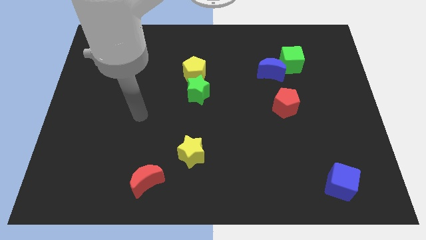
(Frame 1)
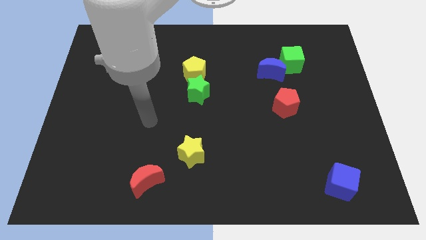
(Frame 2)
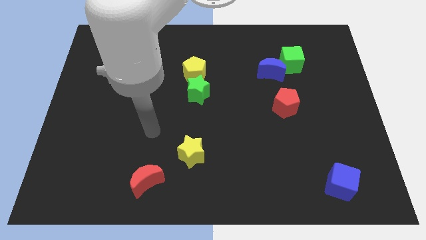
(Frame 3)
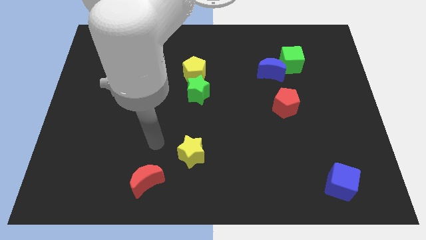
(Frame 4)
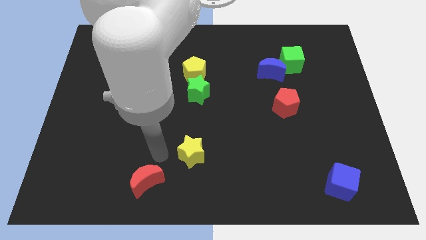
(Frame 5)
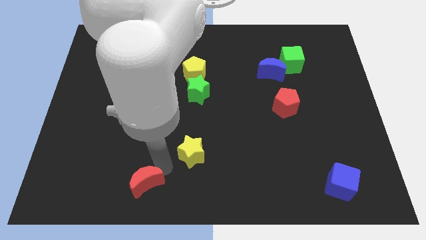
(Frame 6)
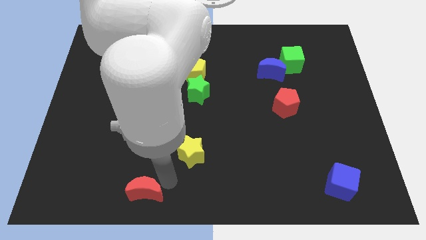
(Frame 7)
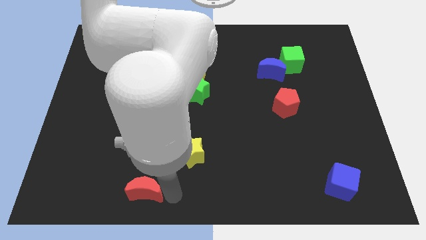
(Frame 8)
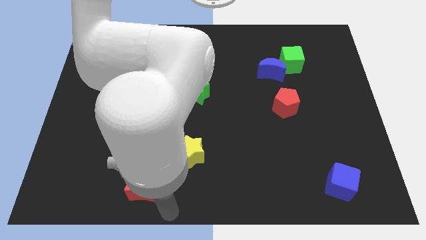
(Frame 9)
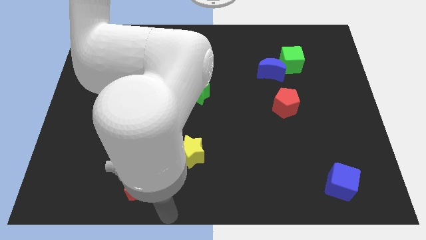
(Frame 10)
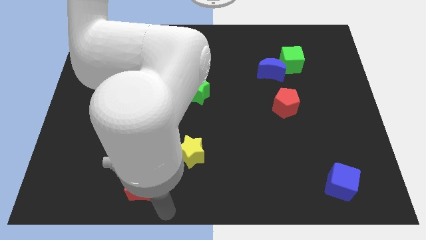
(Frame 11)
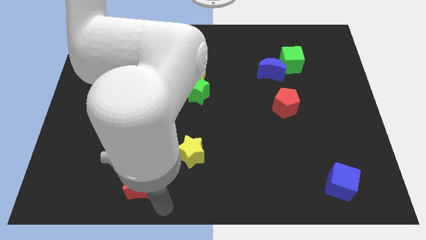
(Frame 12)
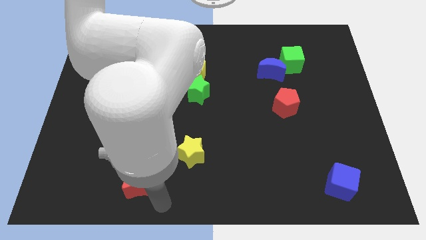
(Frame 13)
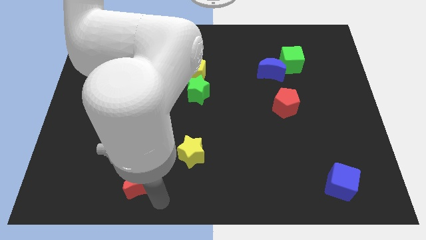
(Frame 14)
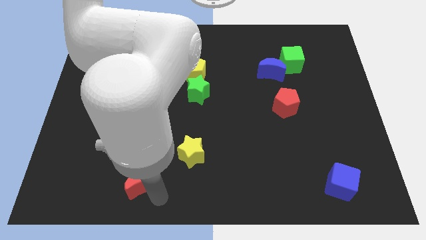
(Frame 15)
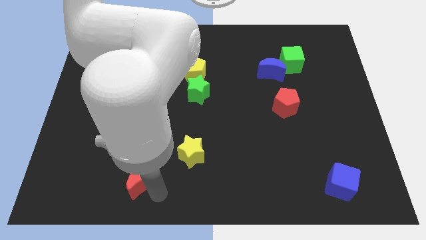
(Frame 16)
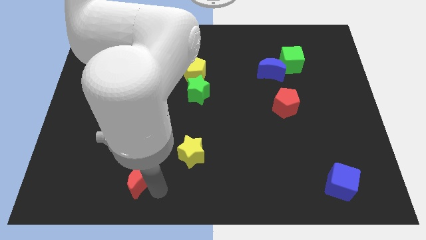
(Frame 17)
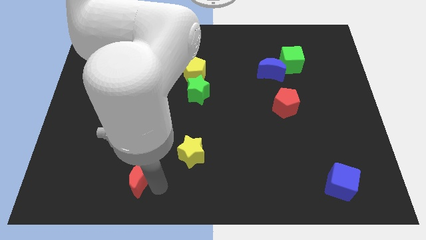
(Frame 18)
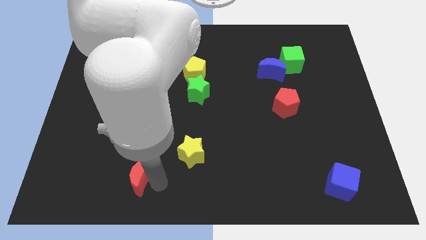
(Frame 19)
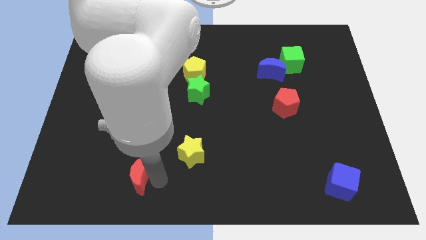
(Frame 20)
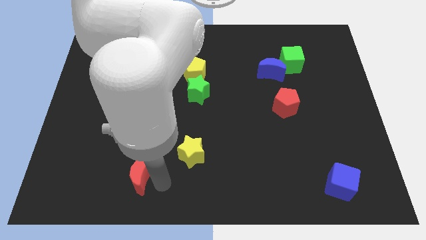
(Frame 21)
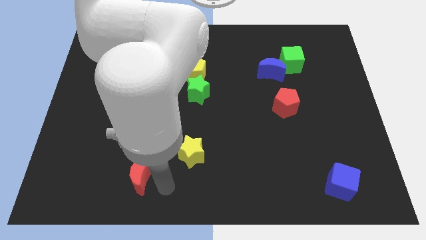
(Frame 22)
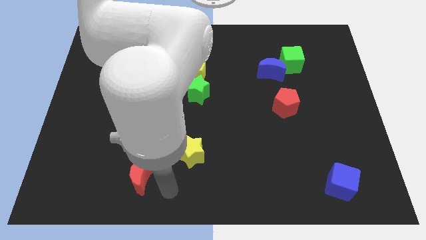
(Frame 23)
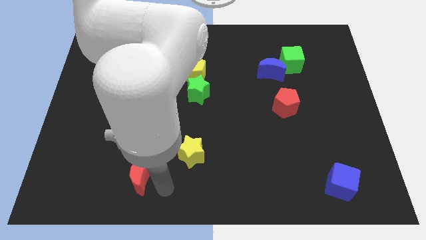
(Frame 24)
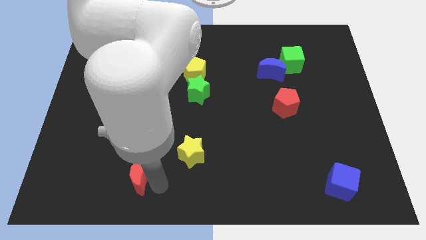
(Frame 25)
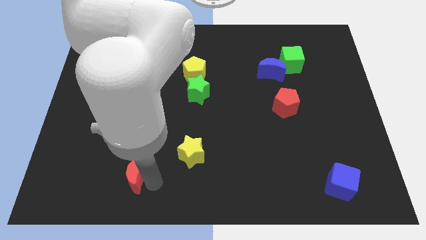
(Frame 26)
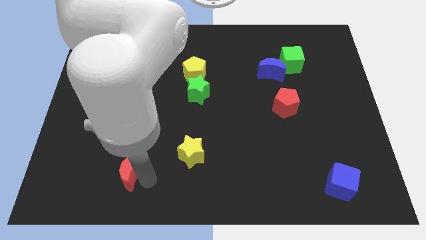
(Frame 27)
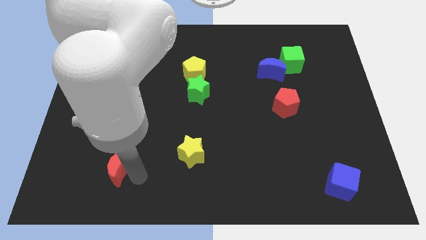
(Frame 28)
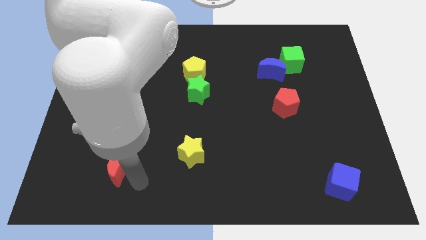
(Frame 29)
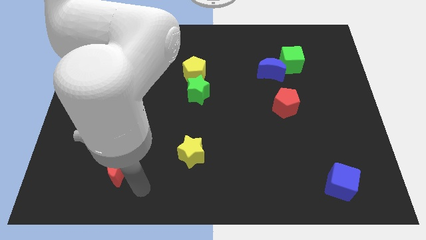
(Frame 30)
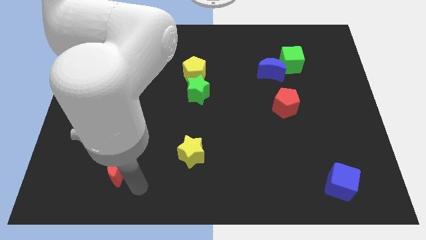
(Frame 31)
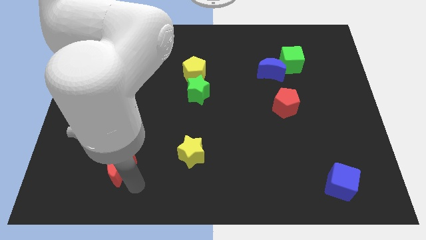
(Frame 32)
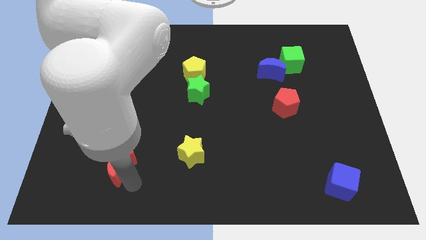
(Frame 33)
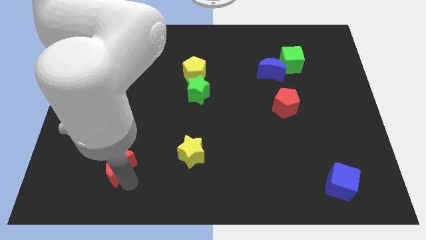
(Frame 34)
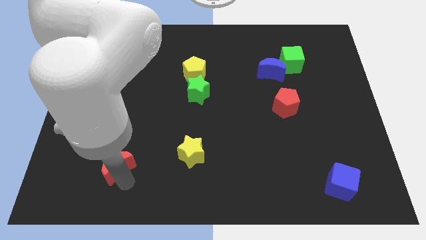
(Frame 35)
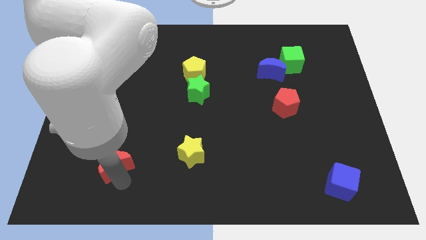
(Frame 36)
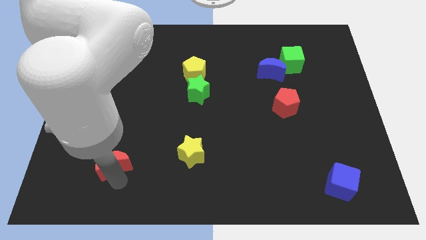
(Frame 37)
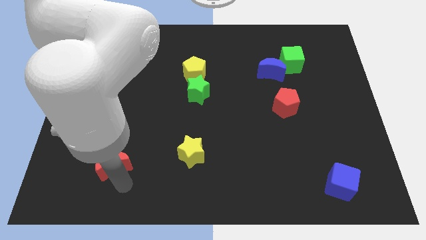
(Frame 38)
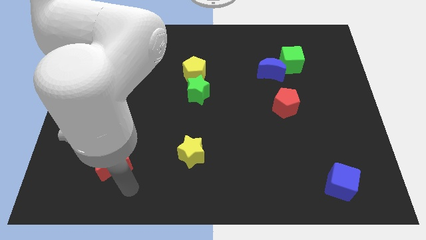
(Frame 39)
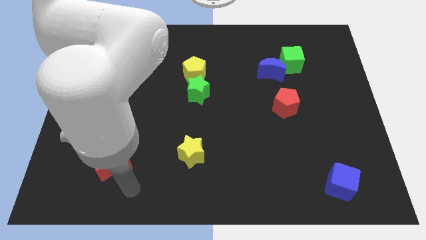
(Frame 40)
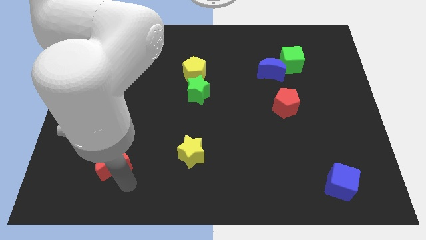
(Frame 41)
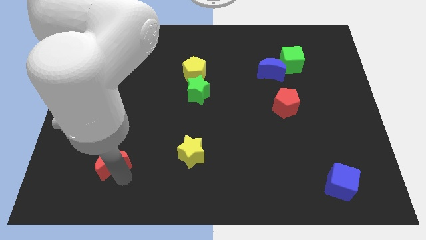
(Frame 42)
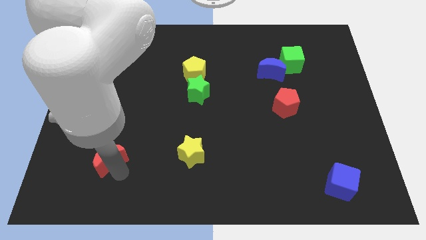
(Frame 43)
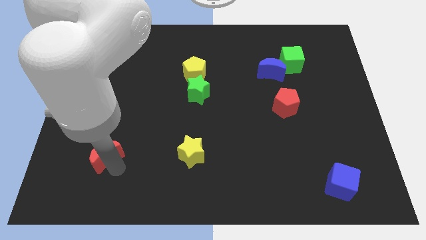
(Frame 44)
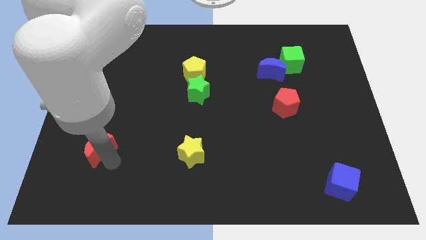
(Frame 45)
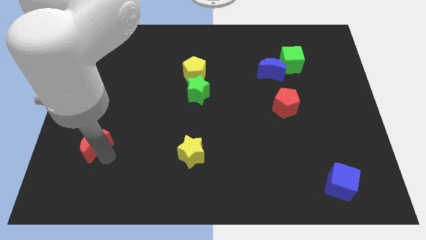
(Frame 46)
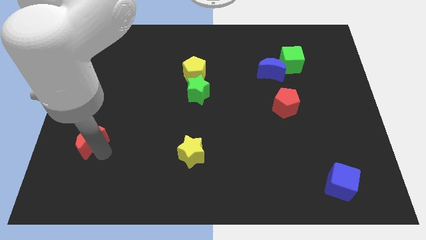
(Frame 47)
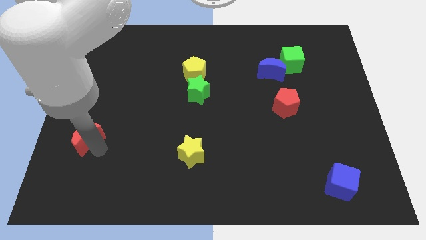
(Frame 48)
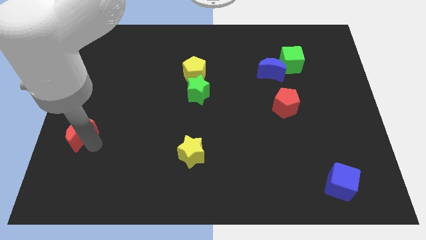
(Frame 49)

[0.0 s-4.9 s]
move the red moon to the left side of the board

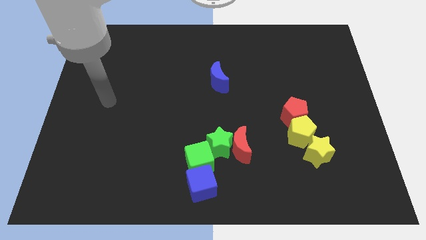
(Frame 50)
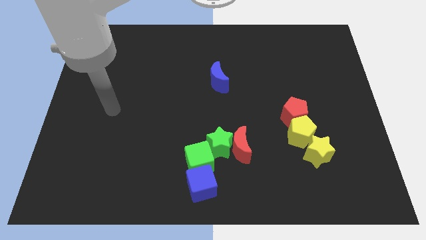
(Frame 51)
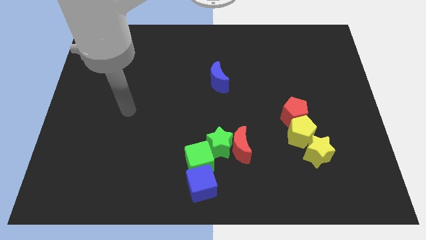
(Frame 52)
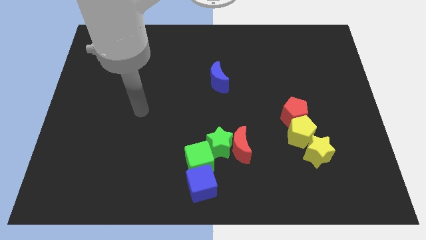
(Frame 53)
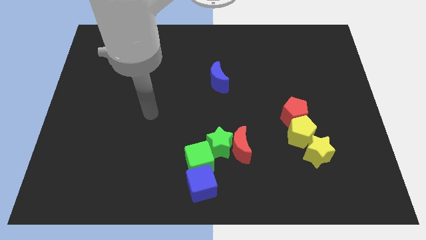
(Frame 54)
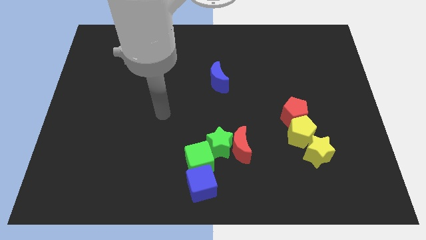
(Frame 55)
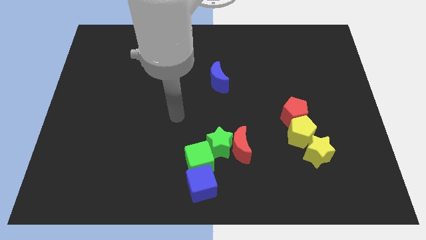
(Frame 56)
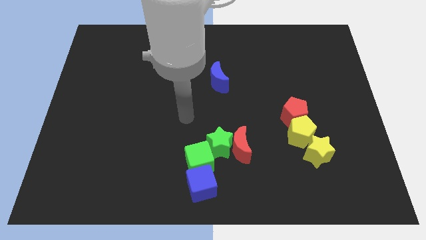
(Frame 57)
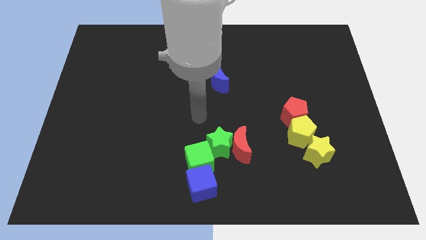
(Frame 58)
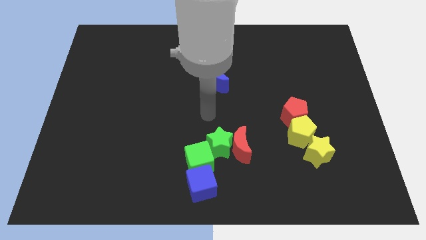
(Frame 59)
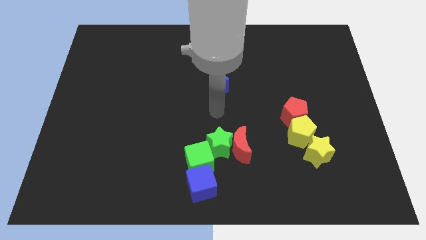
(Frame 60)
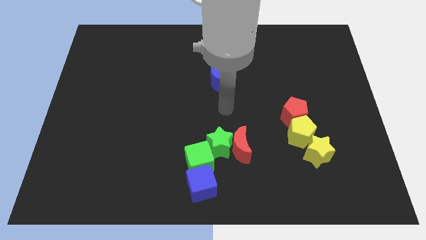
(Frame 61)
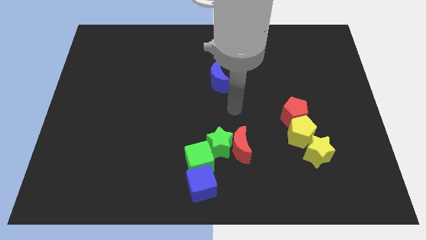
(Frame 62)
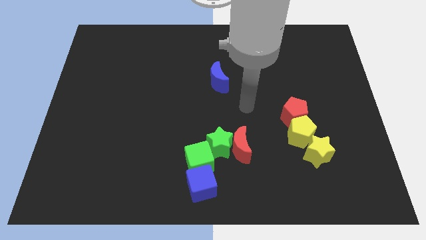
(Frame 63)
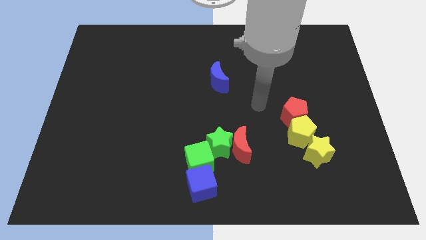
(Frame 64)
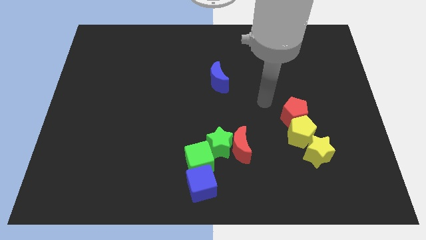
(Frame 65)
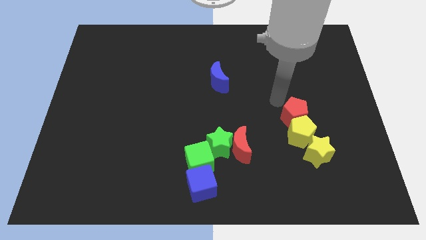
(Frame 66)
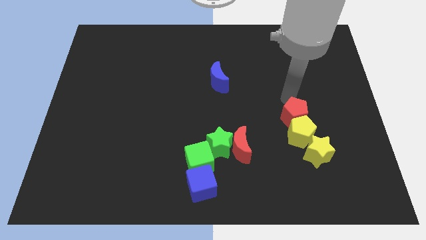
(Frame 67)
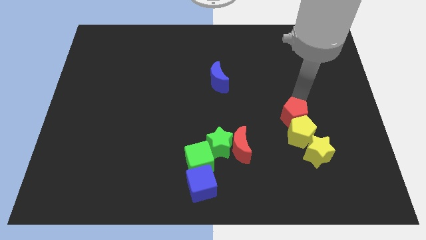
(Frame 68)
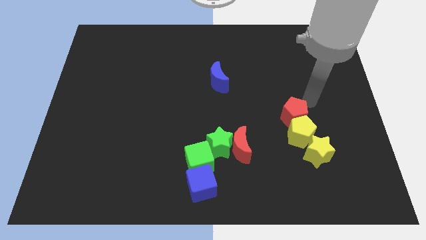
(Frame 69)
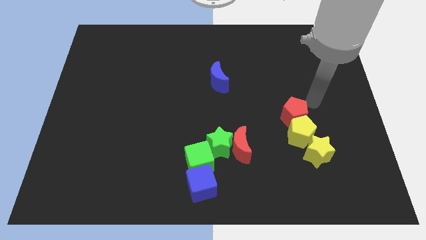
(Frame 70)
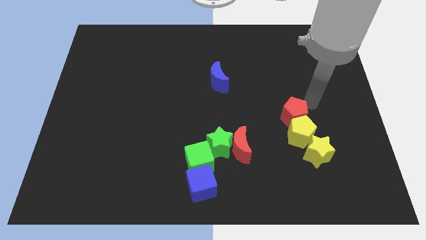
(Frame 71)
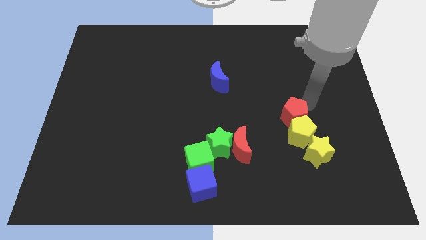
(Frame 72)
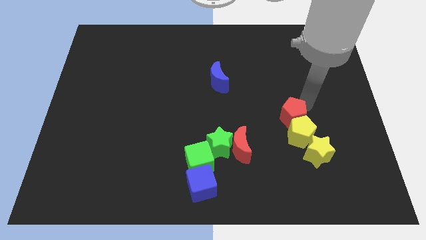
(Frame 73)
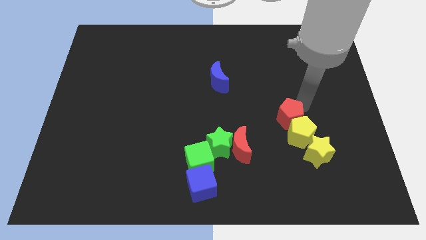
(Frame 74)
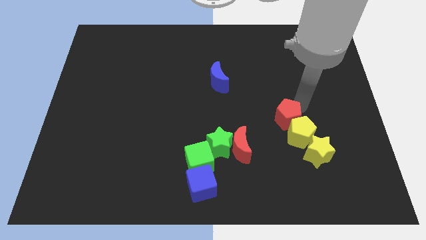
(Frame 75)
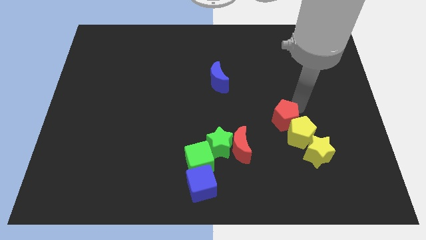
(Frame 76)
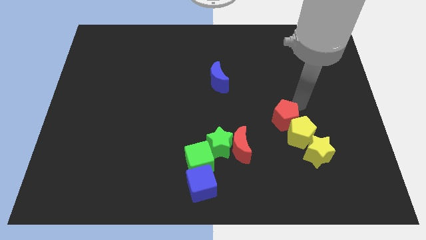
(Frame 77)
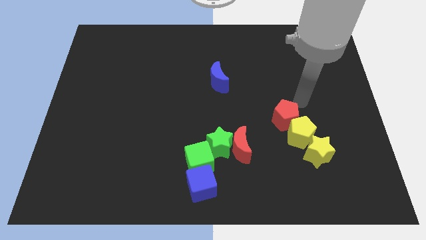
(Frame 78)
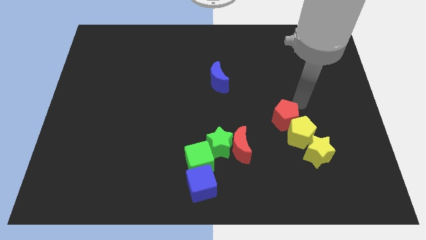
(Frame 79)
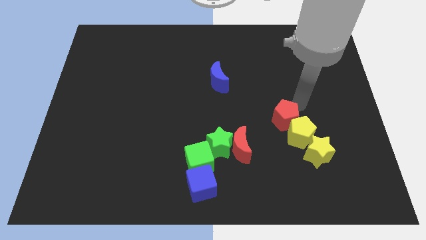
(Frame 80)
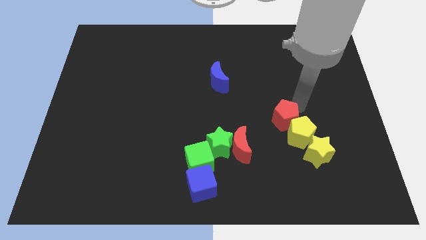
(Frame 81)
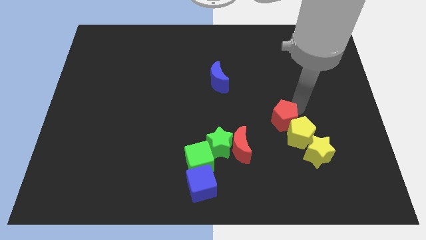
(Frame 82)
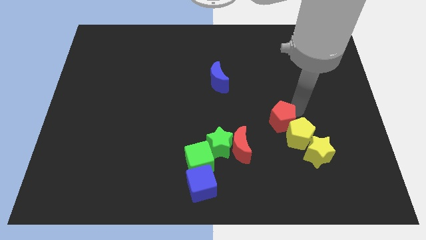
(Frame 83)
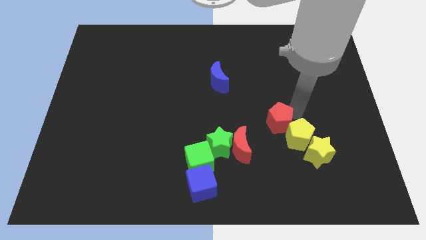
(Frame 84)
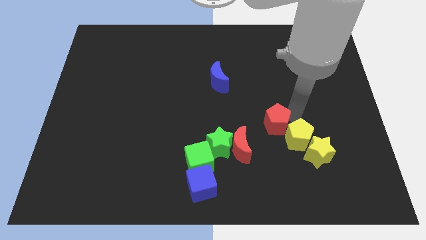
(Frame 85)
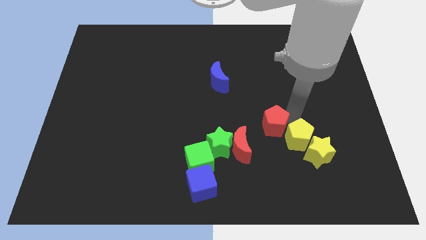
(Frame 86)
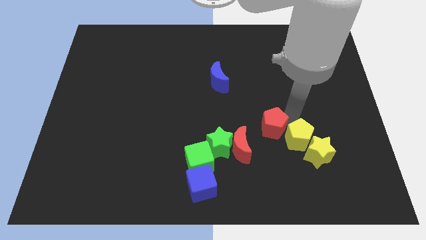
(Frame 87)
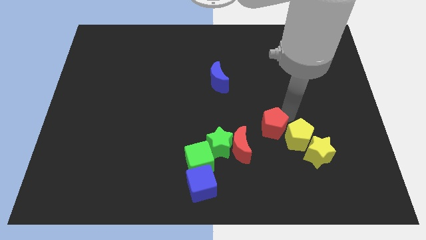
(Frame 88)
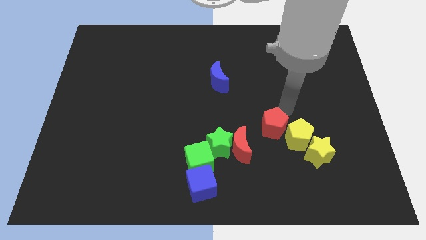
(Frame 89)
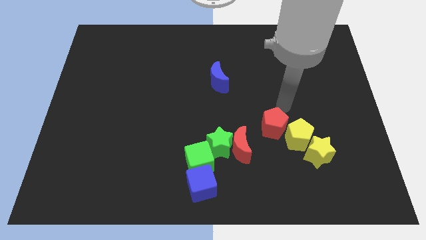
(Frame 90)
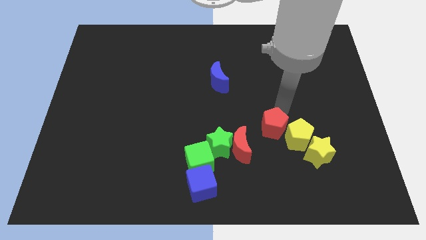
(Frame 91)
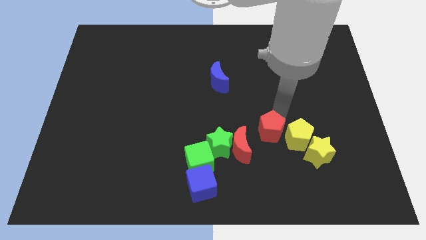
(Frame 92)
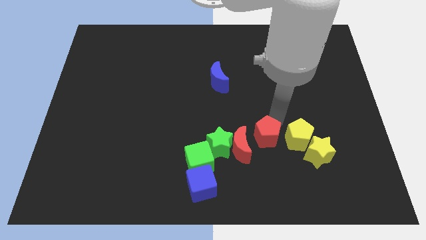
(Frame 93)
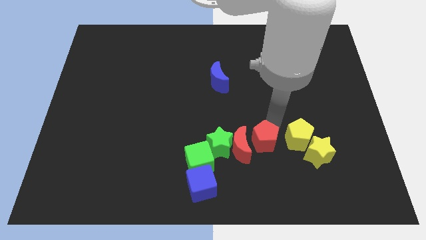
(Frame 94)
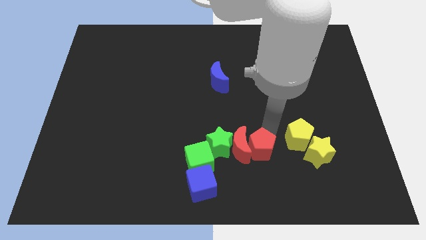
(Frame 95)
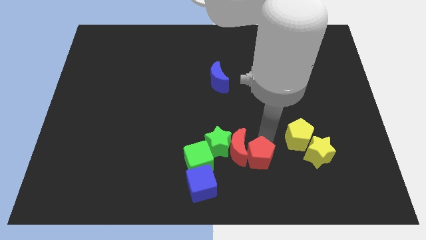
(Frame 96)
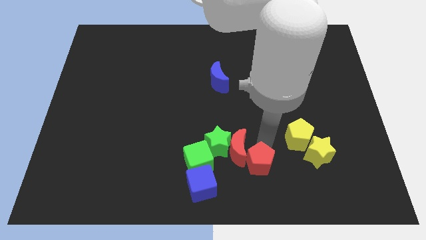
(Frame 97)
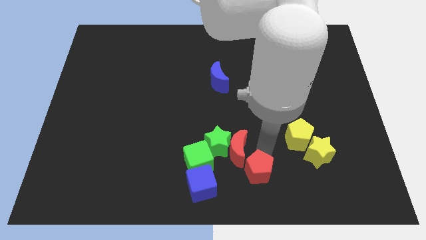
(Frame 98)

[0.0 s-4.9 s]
slide the red pentagon to the bottom side
